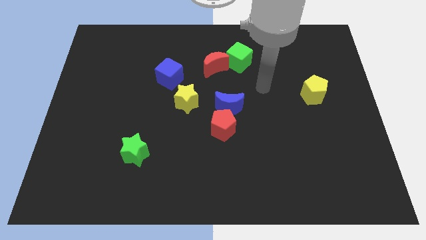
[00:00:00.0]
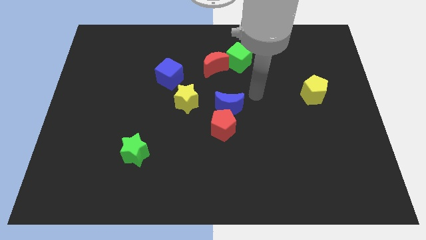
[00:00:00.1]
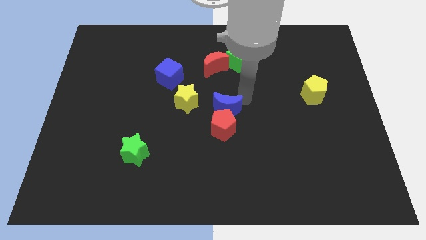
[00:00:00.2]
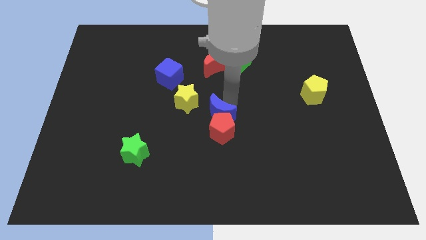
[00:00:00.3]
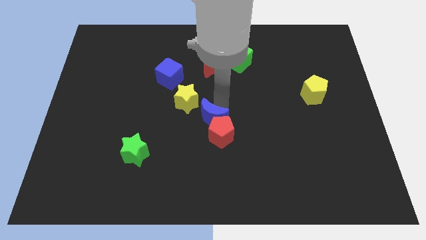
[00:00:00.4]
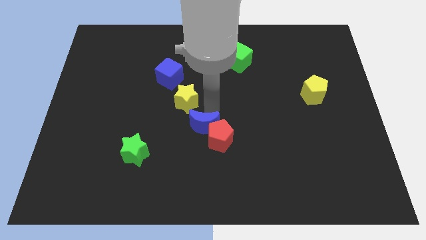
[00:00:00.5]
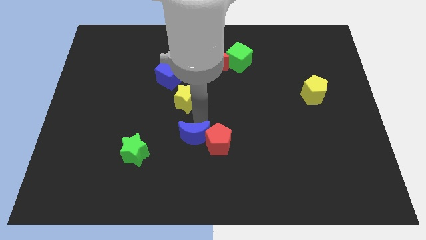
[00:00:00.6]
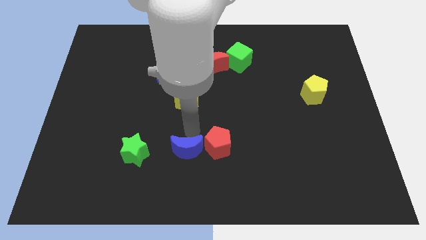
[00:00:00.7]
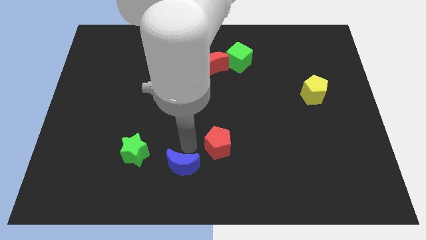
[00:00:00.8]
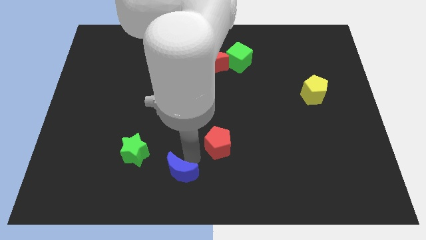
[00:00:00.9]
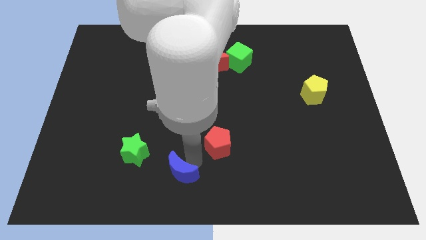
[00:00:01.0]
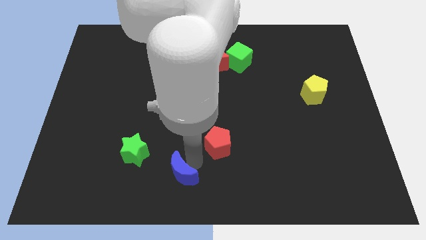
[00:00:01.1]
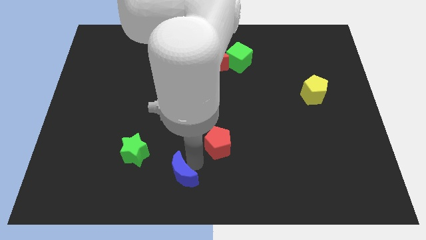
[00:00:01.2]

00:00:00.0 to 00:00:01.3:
move the red pentagon away from the blue moon

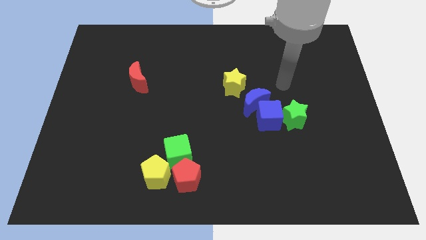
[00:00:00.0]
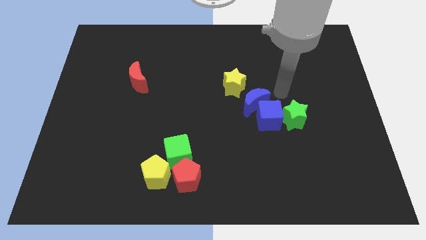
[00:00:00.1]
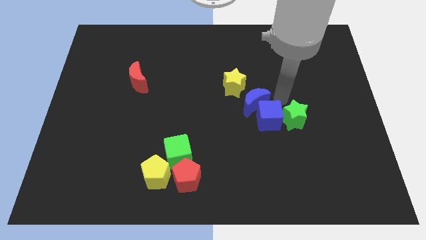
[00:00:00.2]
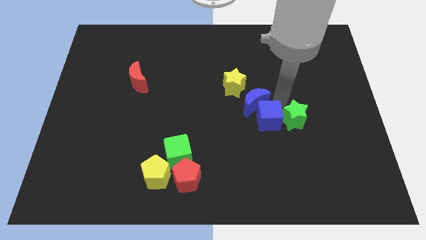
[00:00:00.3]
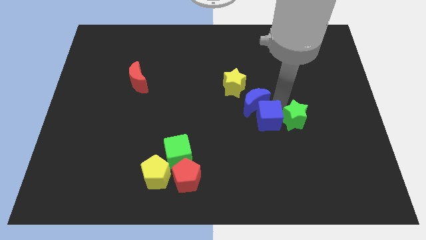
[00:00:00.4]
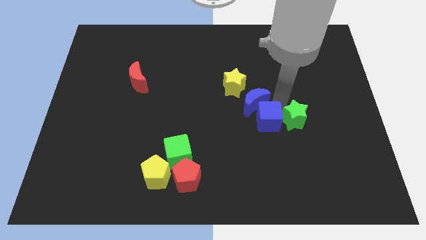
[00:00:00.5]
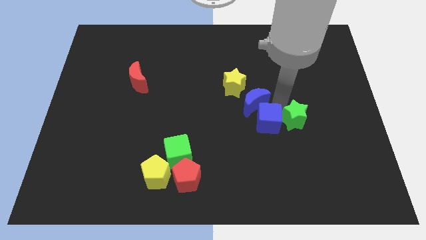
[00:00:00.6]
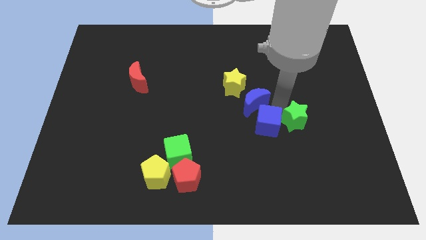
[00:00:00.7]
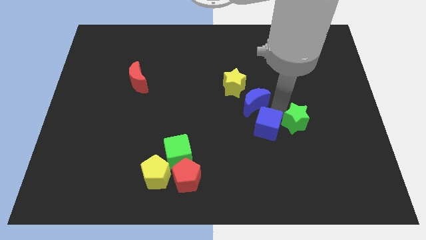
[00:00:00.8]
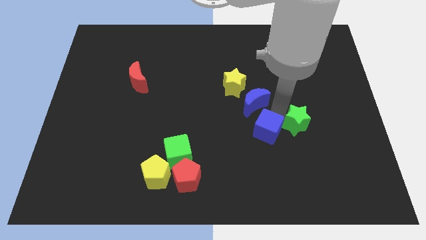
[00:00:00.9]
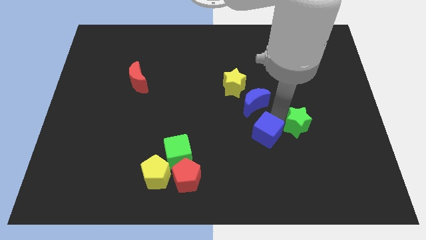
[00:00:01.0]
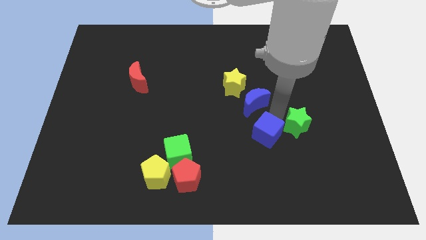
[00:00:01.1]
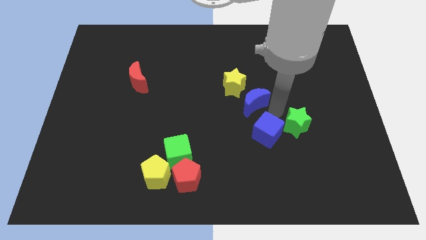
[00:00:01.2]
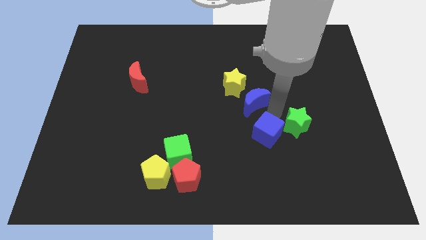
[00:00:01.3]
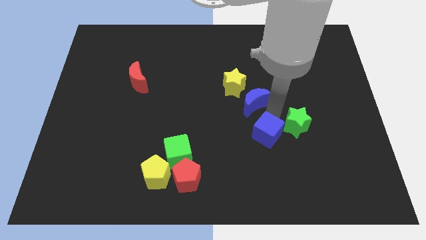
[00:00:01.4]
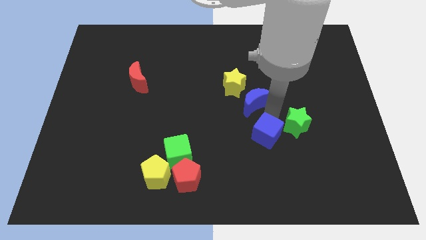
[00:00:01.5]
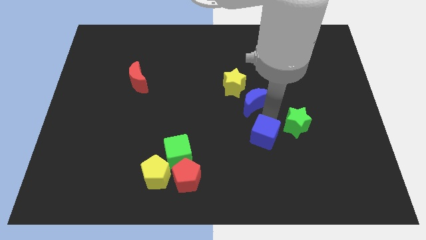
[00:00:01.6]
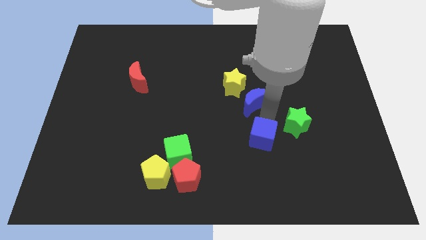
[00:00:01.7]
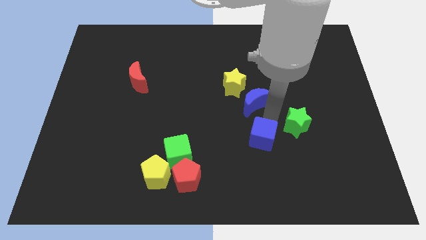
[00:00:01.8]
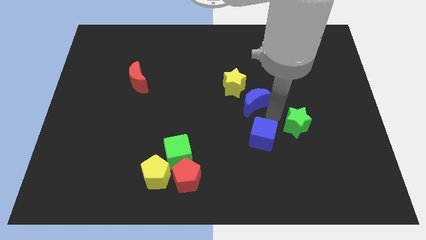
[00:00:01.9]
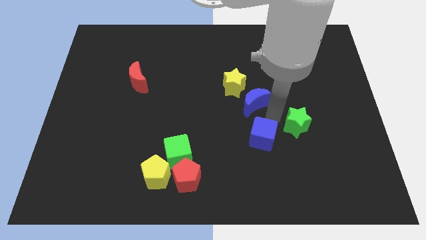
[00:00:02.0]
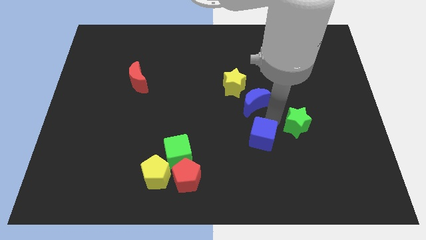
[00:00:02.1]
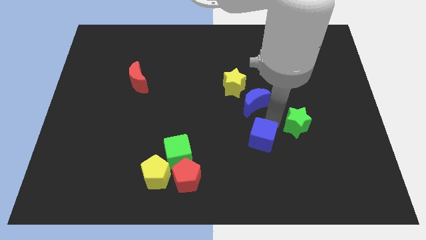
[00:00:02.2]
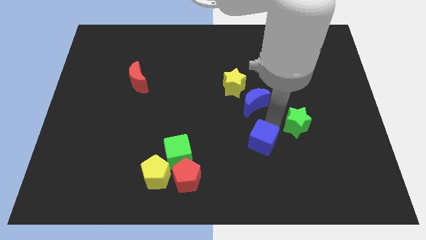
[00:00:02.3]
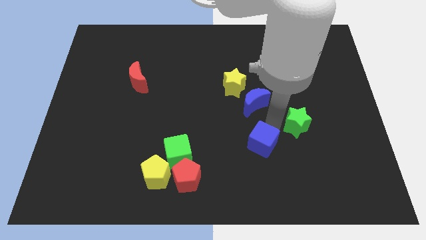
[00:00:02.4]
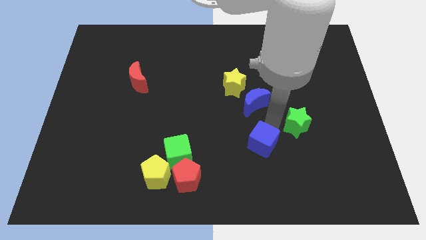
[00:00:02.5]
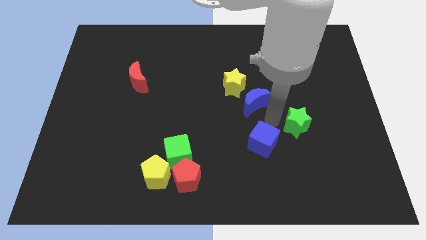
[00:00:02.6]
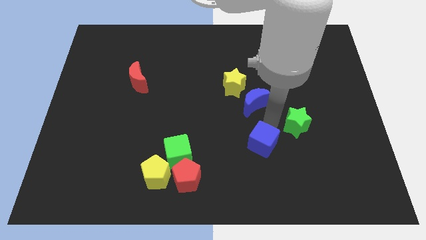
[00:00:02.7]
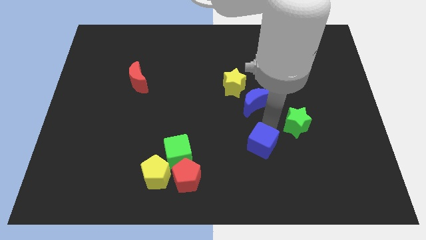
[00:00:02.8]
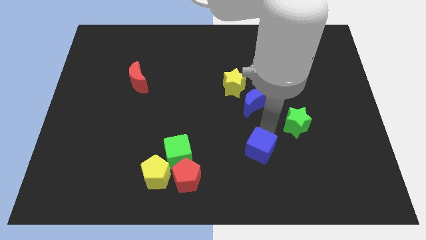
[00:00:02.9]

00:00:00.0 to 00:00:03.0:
move the blue cube away from the blue moon and green star

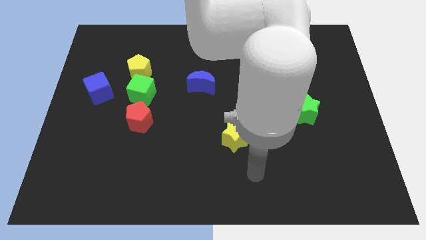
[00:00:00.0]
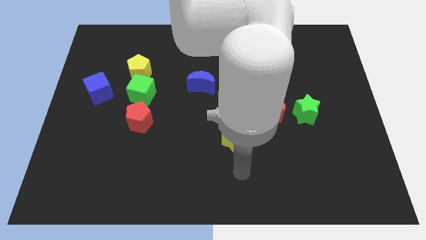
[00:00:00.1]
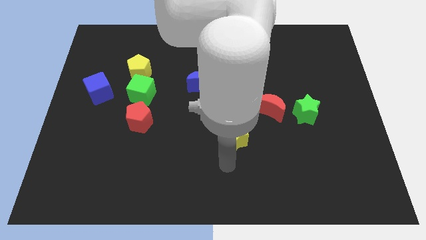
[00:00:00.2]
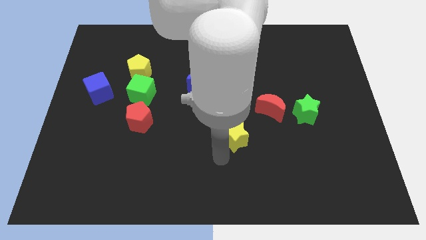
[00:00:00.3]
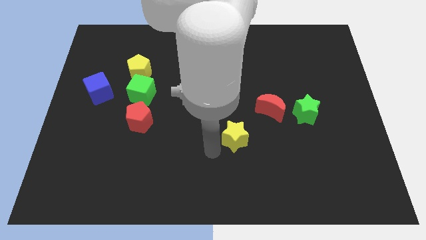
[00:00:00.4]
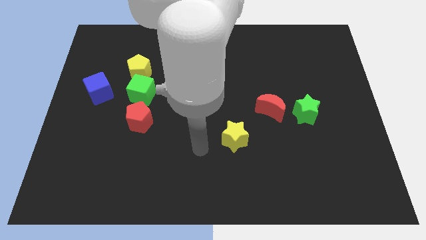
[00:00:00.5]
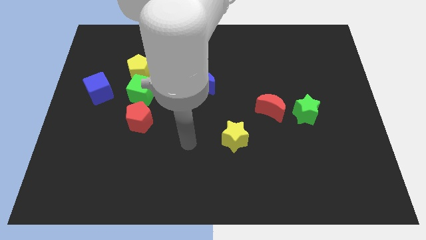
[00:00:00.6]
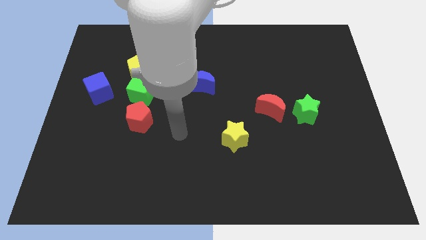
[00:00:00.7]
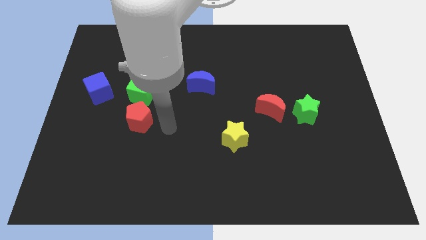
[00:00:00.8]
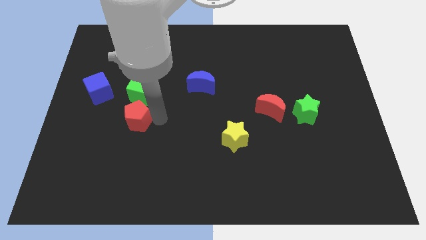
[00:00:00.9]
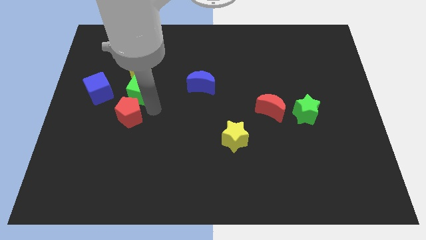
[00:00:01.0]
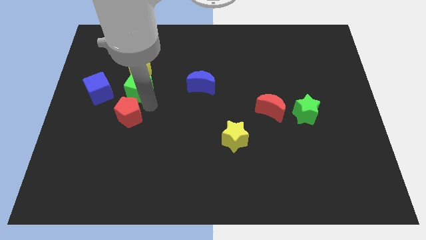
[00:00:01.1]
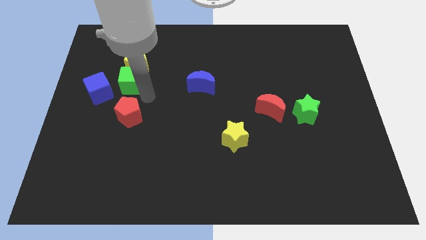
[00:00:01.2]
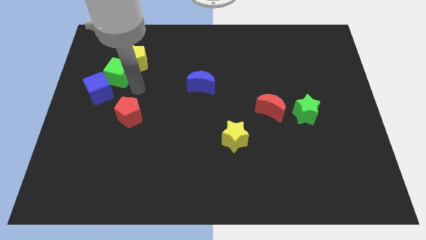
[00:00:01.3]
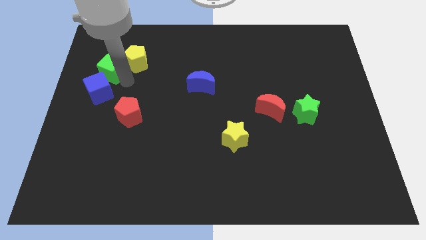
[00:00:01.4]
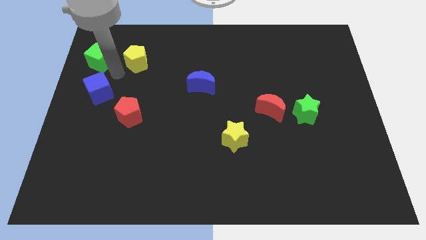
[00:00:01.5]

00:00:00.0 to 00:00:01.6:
separate the yellow pentagon from the green cube

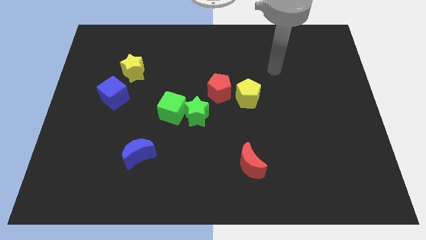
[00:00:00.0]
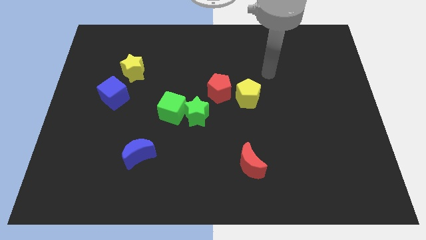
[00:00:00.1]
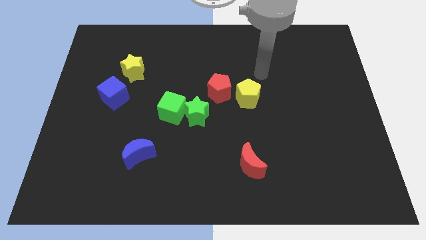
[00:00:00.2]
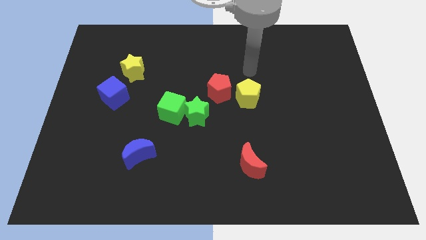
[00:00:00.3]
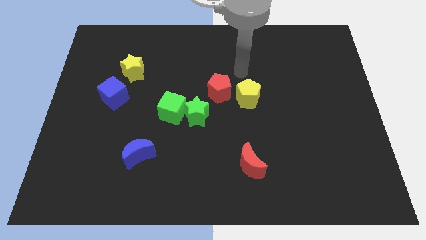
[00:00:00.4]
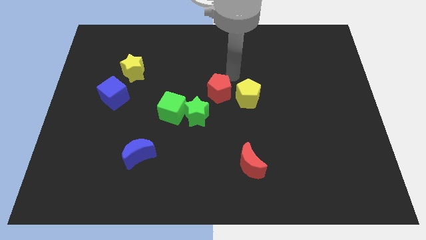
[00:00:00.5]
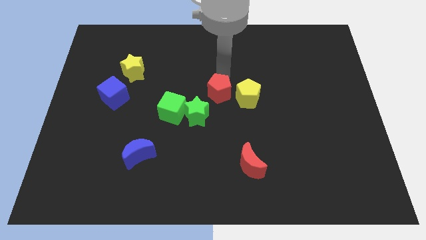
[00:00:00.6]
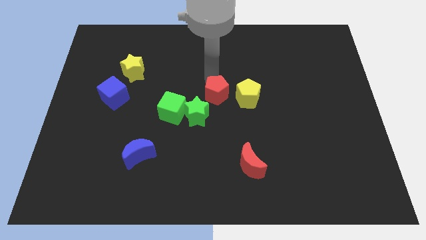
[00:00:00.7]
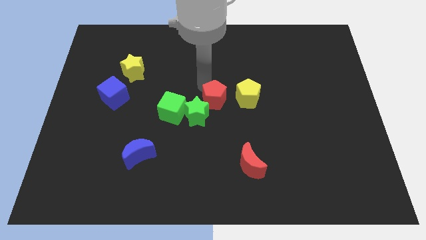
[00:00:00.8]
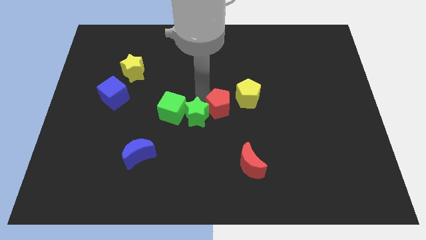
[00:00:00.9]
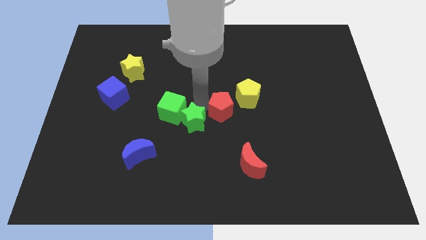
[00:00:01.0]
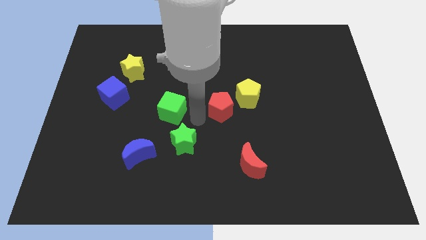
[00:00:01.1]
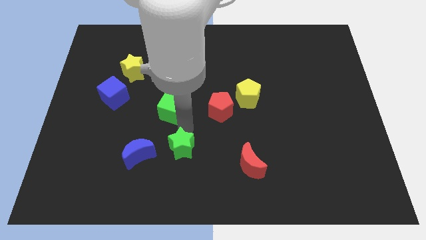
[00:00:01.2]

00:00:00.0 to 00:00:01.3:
move the green cube away from the green star

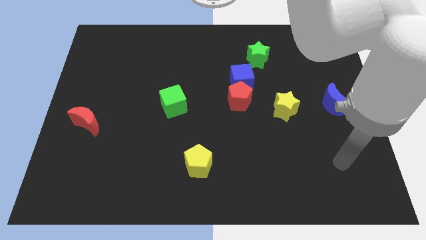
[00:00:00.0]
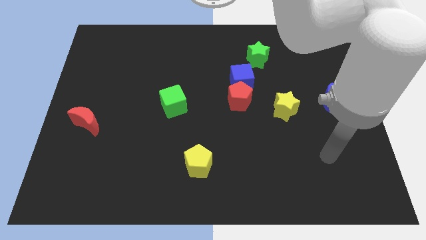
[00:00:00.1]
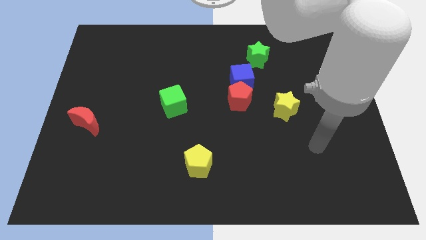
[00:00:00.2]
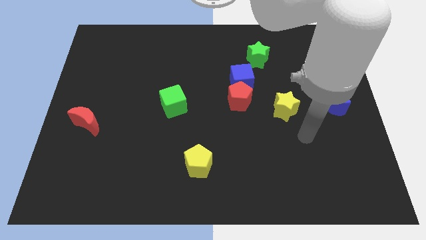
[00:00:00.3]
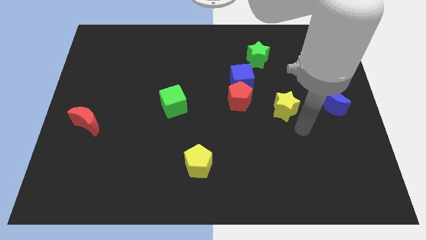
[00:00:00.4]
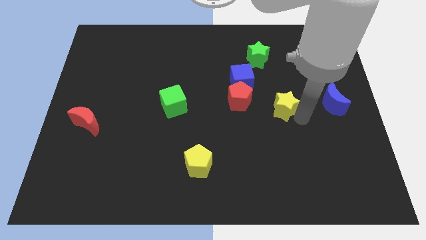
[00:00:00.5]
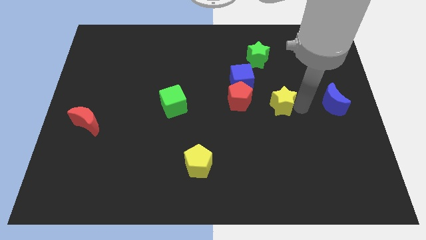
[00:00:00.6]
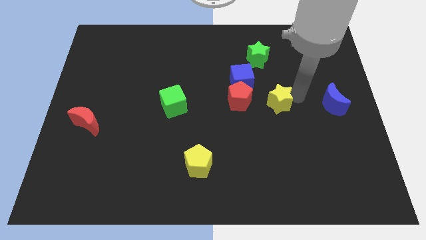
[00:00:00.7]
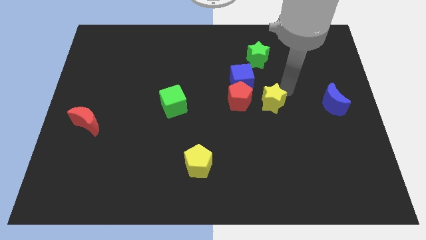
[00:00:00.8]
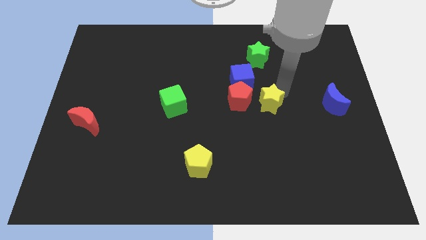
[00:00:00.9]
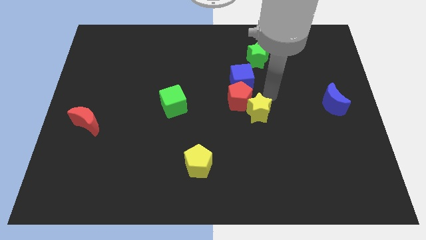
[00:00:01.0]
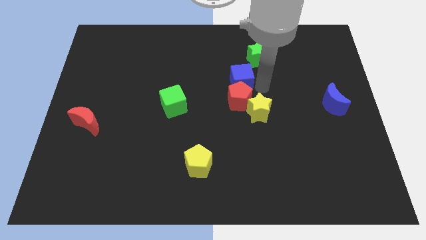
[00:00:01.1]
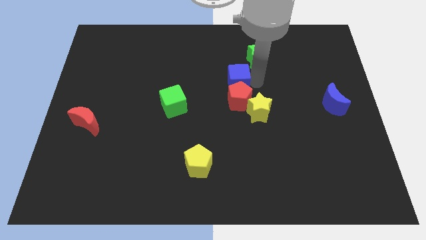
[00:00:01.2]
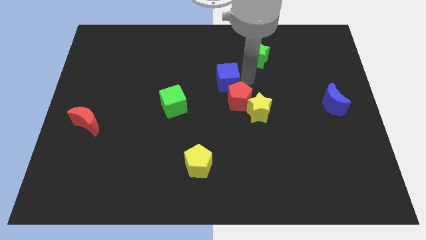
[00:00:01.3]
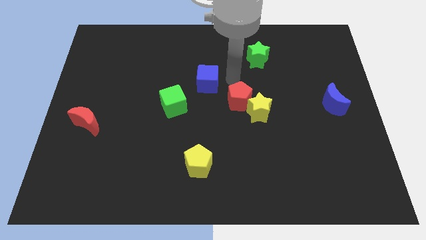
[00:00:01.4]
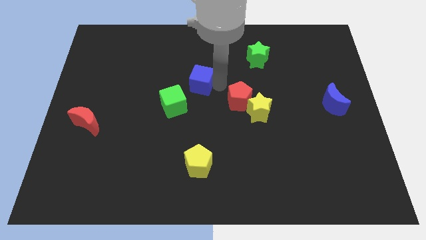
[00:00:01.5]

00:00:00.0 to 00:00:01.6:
pull the red pentagon apart from the blue cube

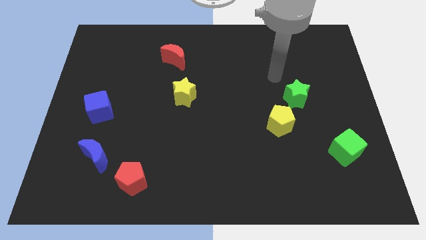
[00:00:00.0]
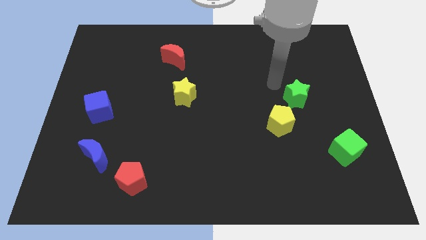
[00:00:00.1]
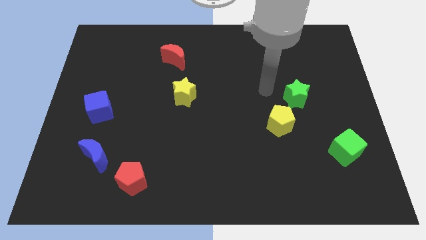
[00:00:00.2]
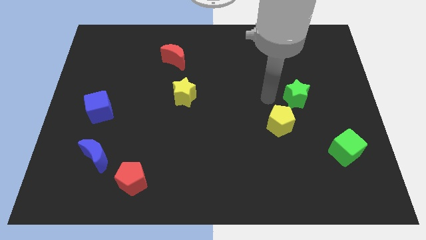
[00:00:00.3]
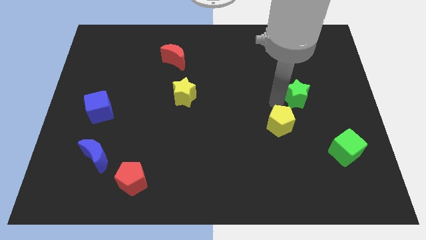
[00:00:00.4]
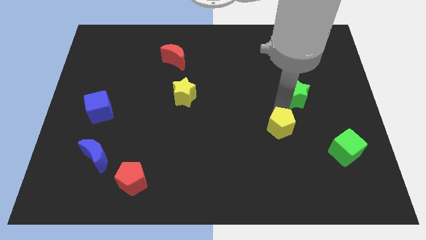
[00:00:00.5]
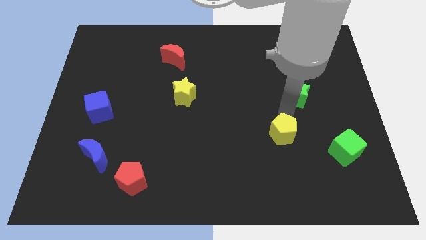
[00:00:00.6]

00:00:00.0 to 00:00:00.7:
move the green star away from the yellow pentagon
